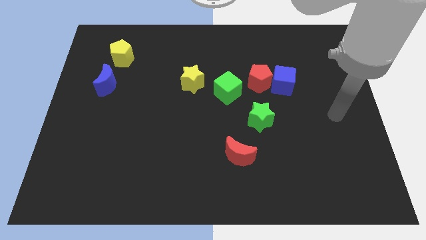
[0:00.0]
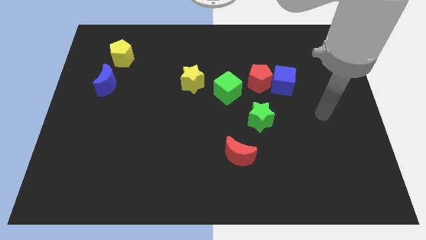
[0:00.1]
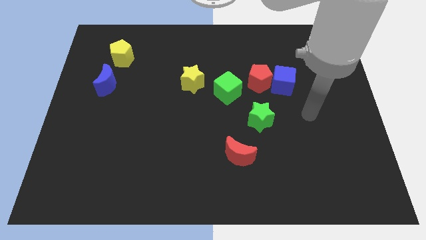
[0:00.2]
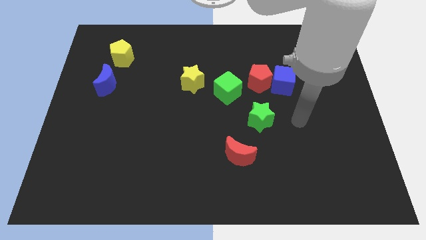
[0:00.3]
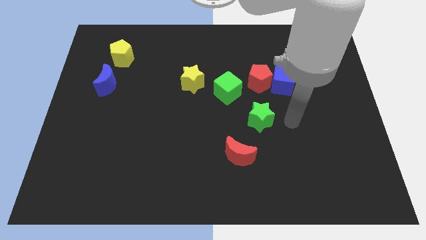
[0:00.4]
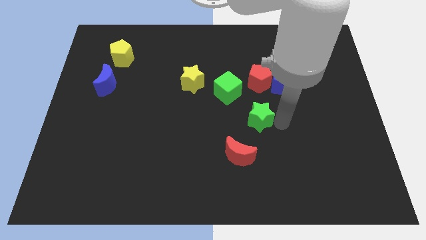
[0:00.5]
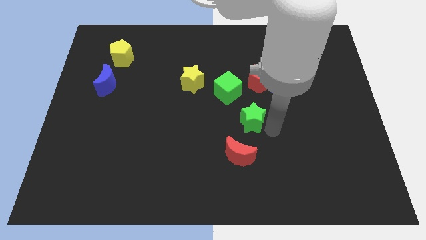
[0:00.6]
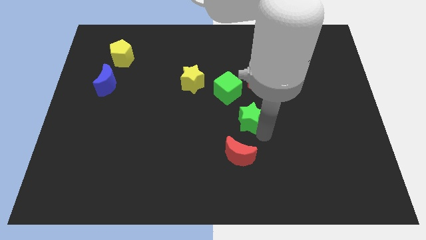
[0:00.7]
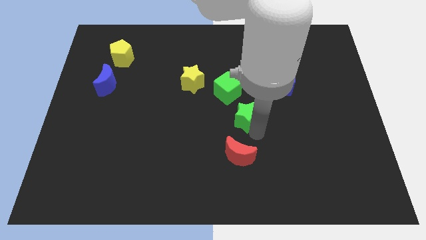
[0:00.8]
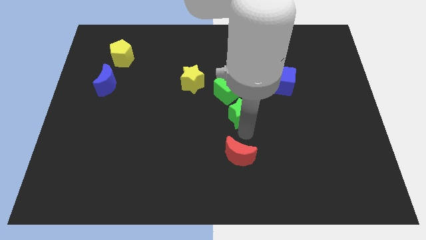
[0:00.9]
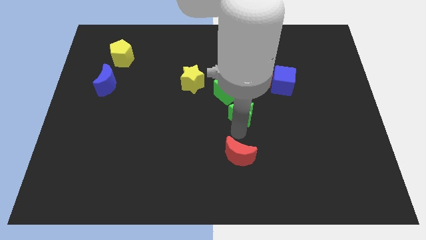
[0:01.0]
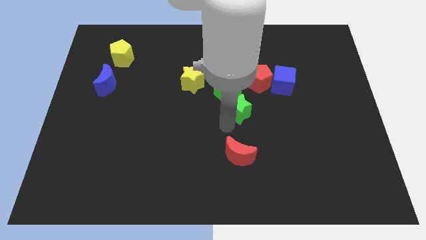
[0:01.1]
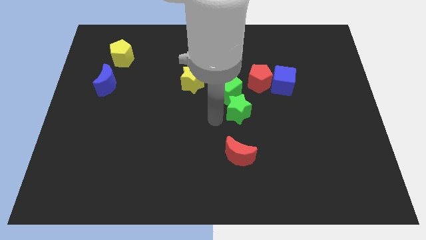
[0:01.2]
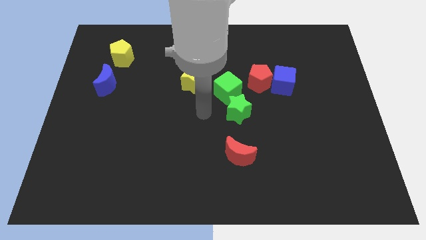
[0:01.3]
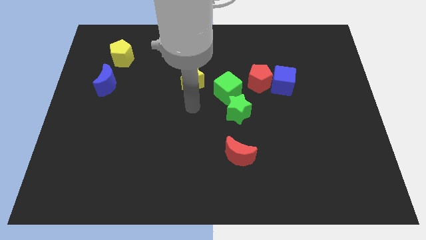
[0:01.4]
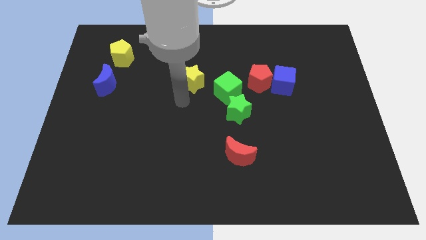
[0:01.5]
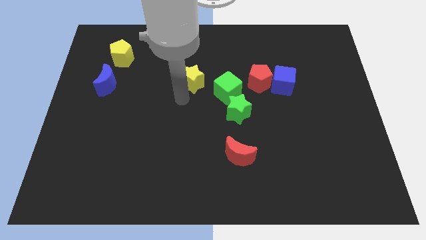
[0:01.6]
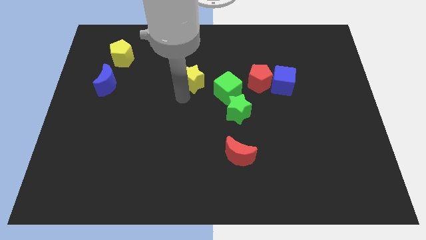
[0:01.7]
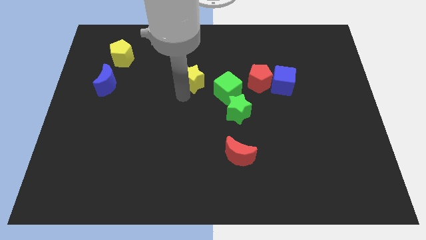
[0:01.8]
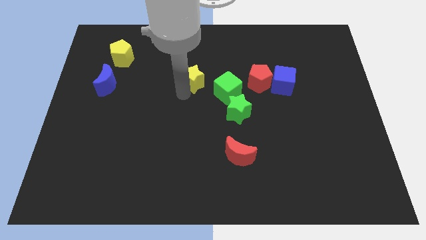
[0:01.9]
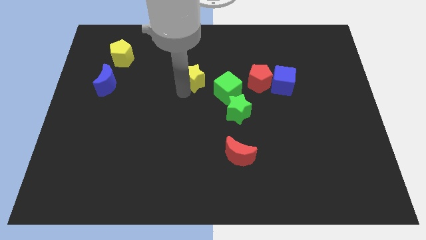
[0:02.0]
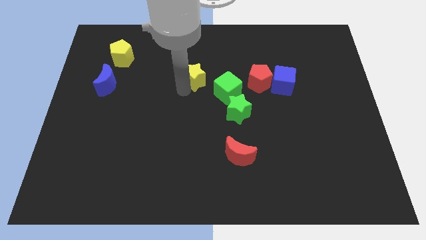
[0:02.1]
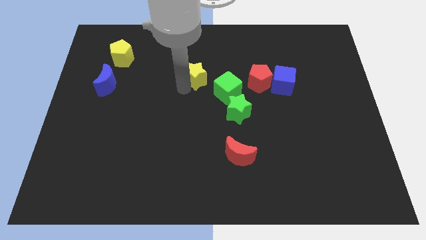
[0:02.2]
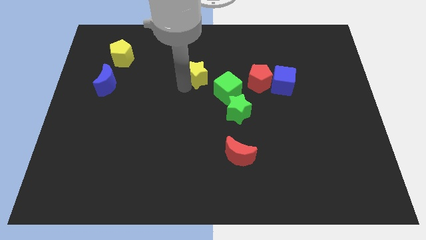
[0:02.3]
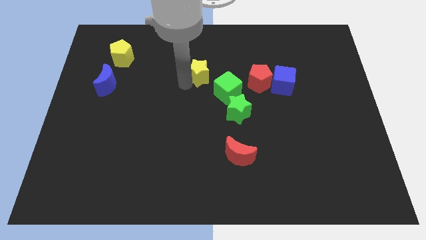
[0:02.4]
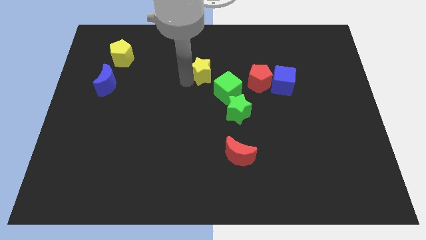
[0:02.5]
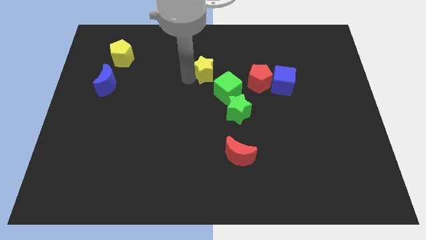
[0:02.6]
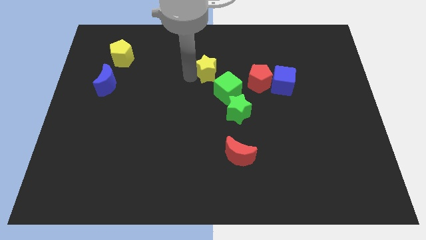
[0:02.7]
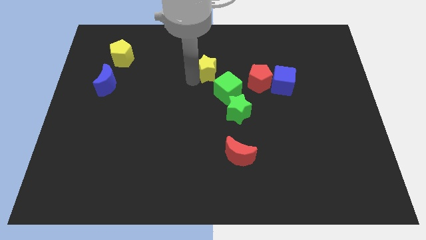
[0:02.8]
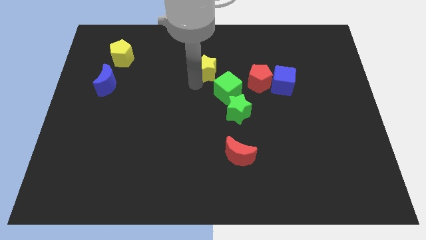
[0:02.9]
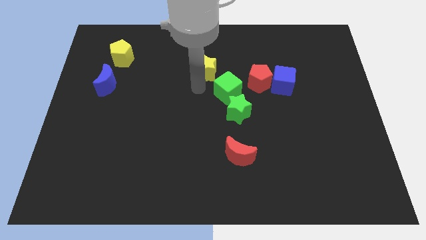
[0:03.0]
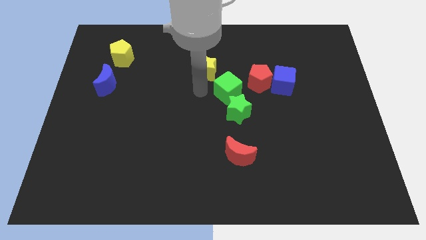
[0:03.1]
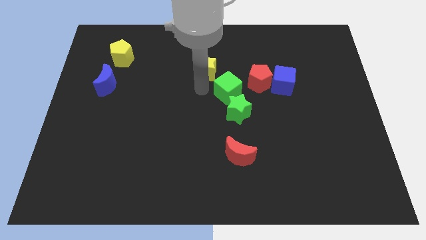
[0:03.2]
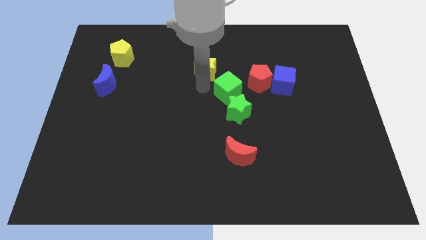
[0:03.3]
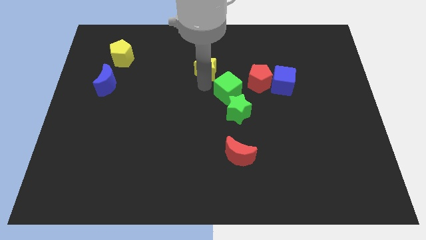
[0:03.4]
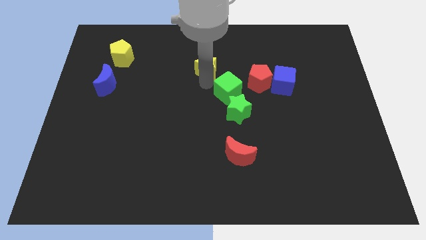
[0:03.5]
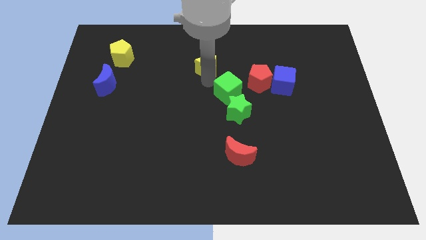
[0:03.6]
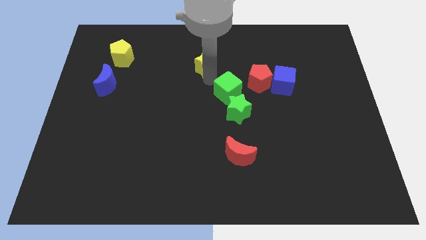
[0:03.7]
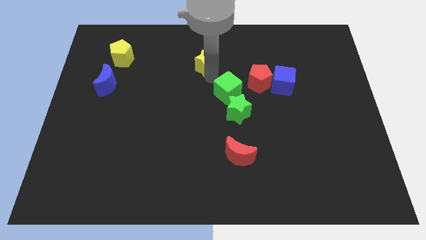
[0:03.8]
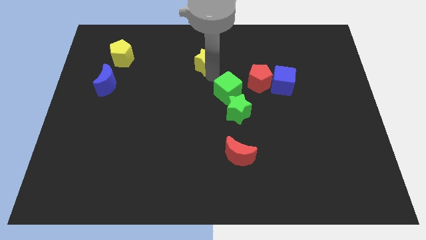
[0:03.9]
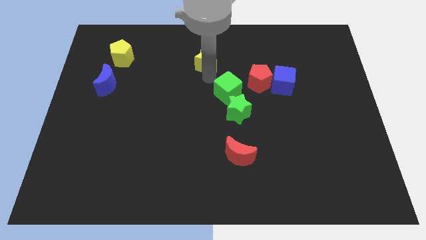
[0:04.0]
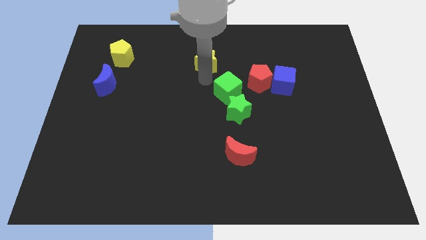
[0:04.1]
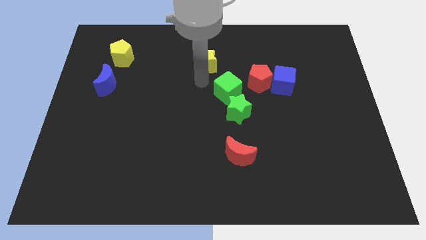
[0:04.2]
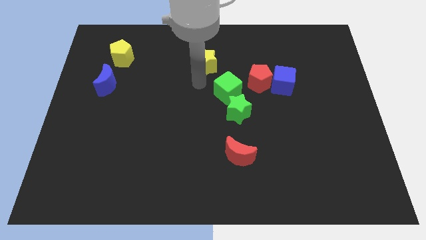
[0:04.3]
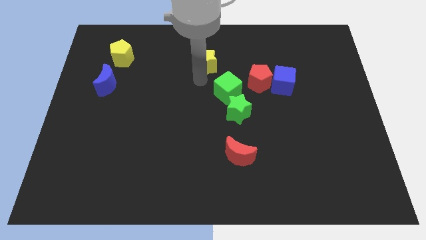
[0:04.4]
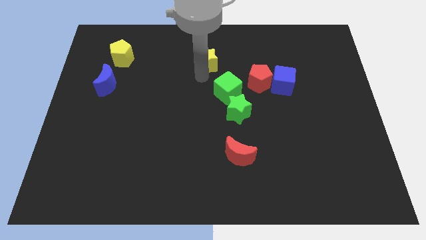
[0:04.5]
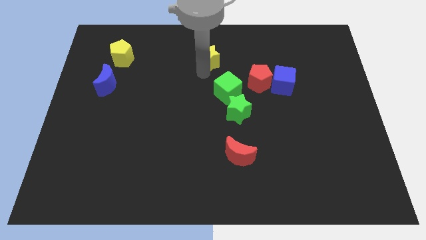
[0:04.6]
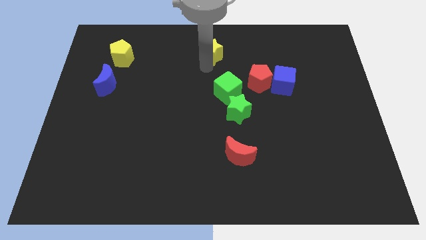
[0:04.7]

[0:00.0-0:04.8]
put the yellow star to the top side

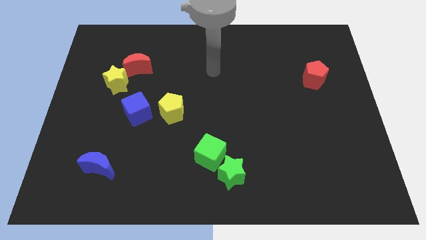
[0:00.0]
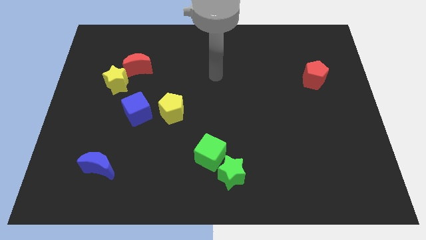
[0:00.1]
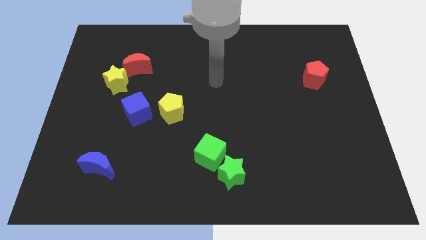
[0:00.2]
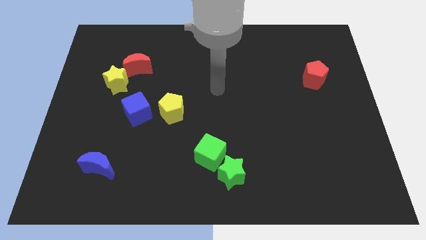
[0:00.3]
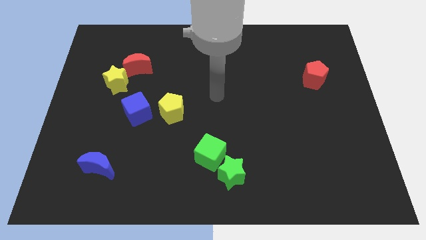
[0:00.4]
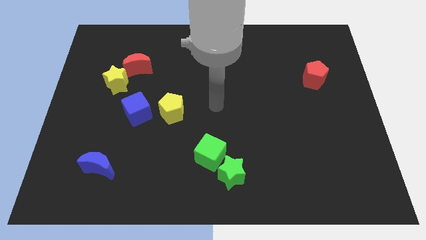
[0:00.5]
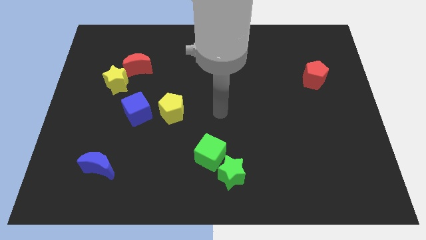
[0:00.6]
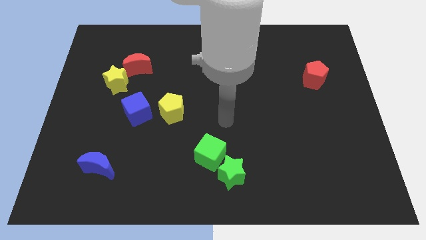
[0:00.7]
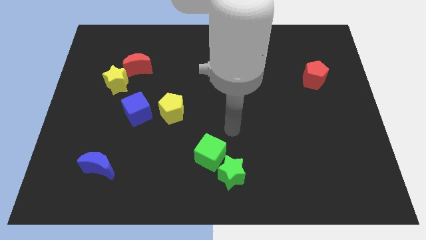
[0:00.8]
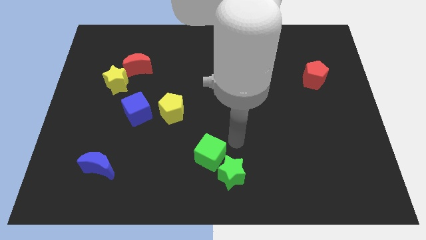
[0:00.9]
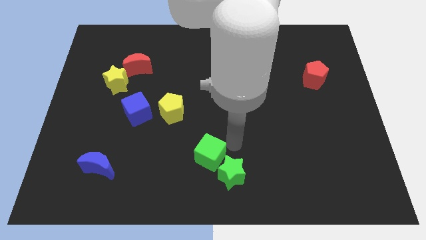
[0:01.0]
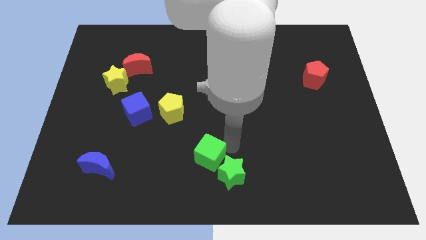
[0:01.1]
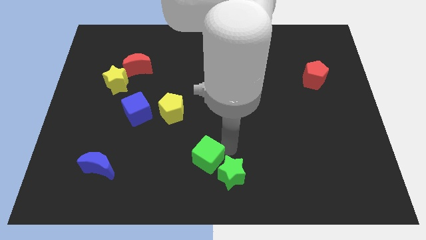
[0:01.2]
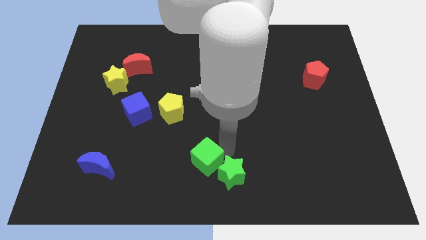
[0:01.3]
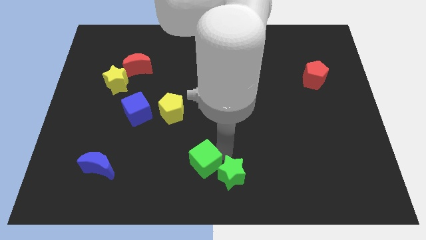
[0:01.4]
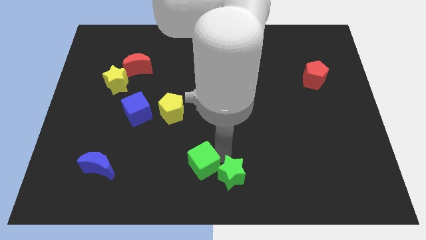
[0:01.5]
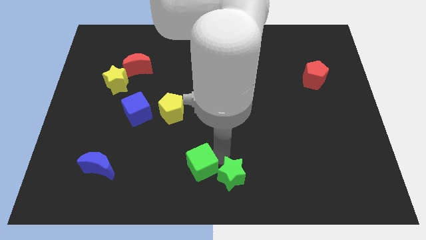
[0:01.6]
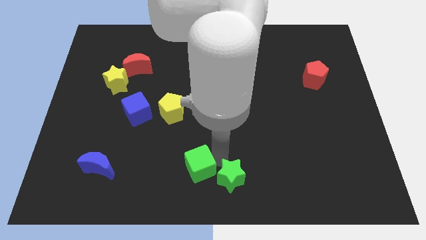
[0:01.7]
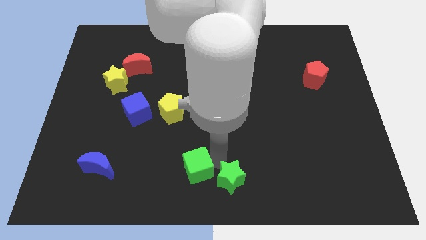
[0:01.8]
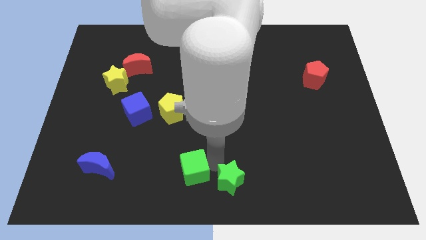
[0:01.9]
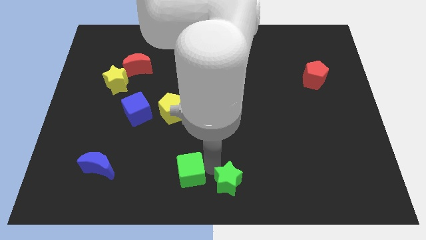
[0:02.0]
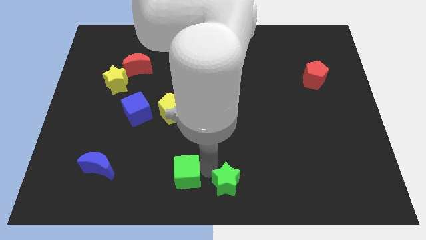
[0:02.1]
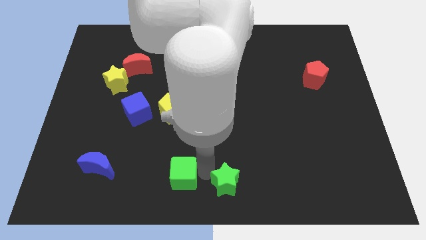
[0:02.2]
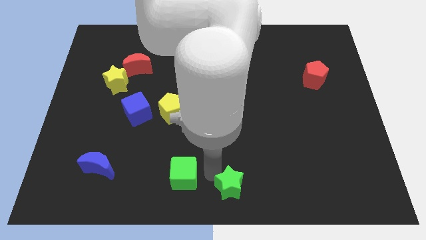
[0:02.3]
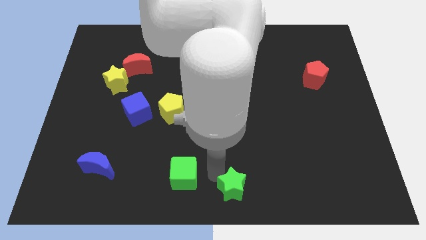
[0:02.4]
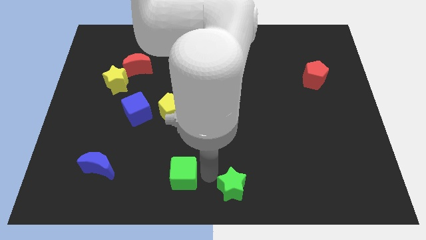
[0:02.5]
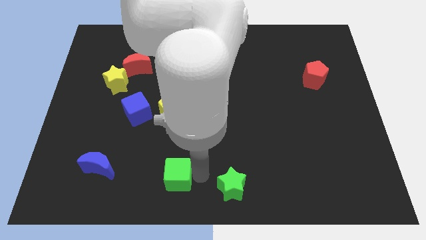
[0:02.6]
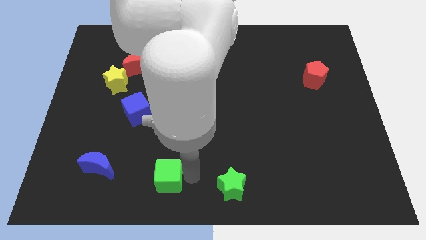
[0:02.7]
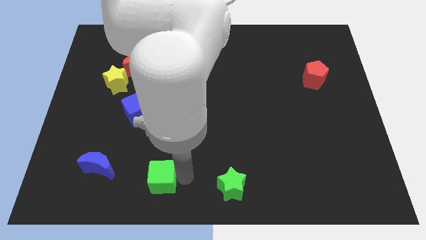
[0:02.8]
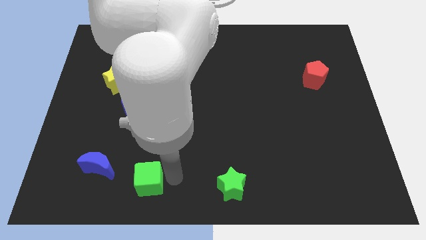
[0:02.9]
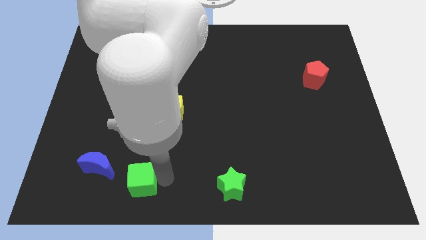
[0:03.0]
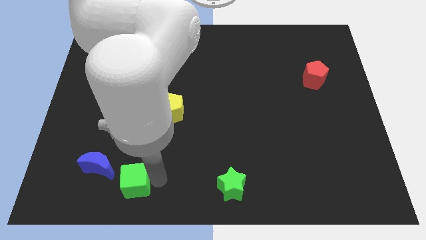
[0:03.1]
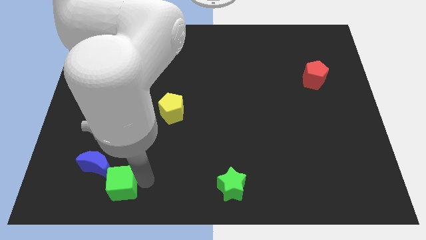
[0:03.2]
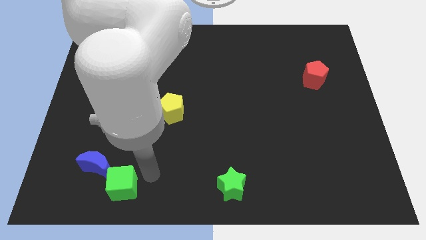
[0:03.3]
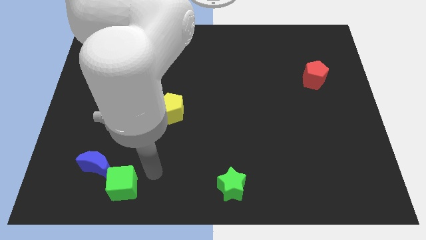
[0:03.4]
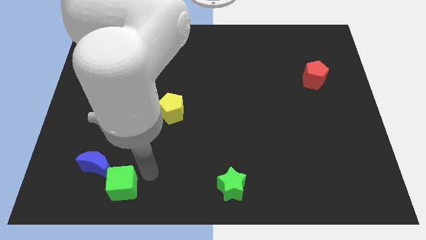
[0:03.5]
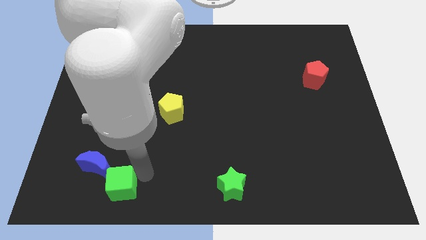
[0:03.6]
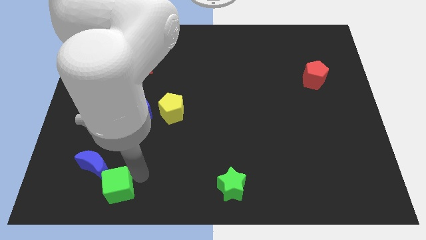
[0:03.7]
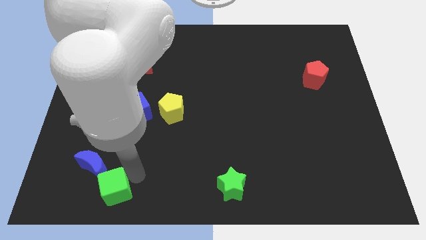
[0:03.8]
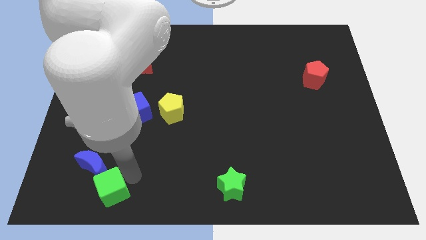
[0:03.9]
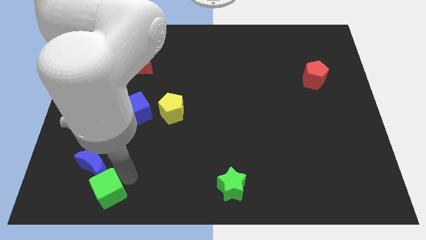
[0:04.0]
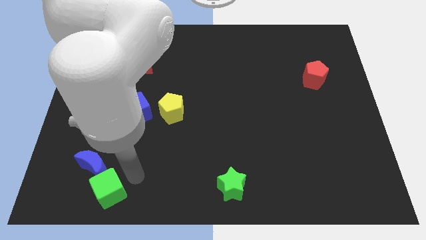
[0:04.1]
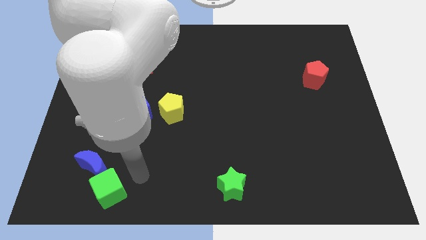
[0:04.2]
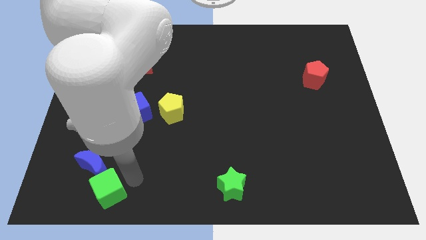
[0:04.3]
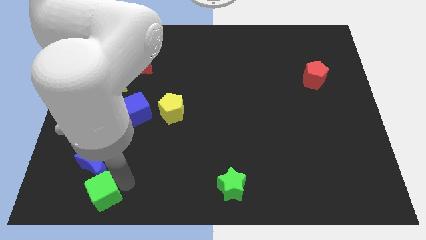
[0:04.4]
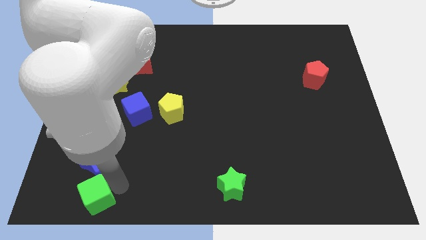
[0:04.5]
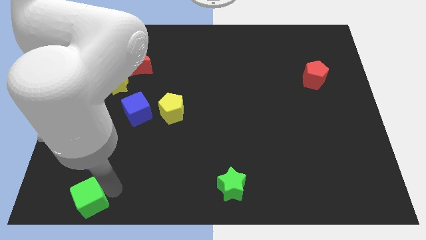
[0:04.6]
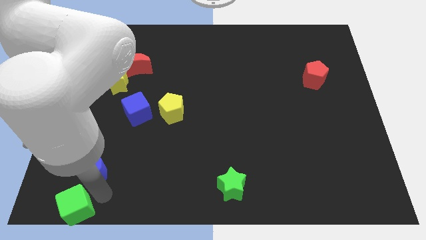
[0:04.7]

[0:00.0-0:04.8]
push the green cube to the bottom left
